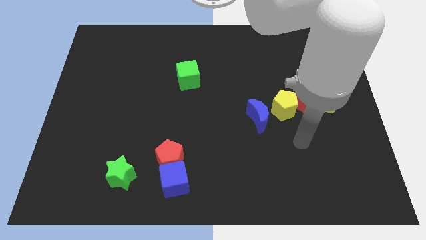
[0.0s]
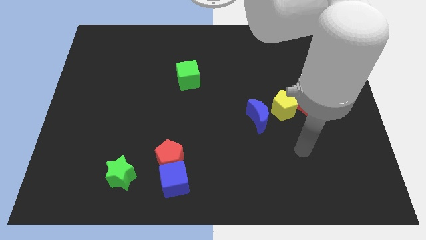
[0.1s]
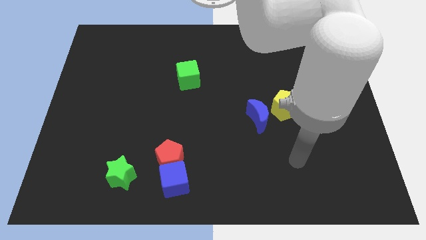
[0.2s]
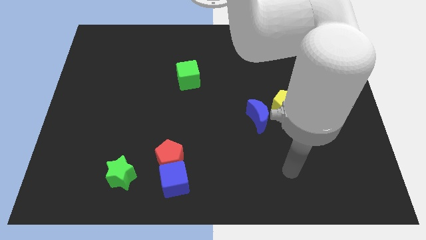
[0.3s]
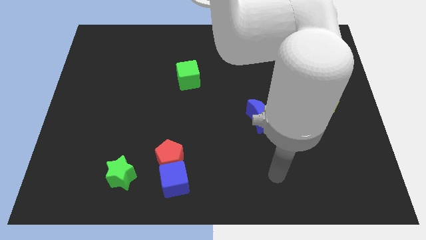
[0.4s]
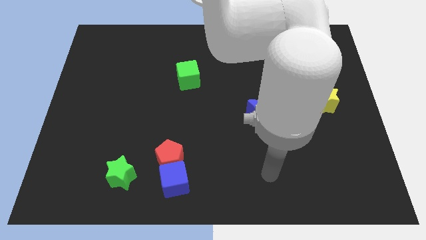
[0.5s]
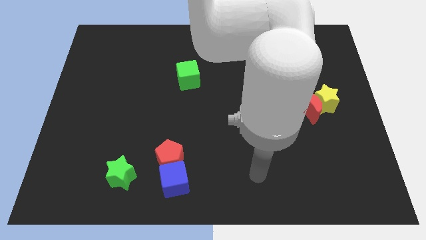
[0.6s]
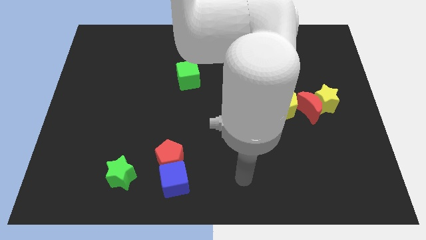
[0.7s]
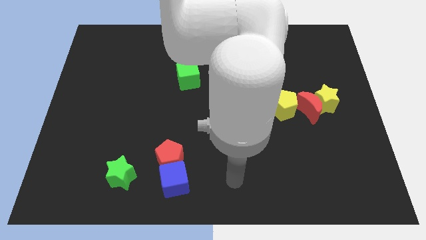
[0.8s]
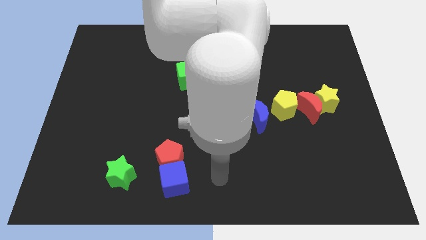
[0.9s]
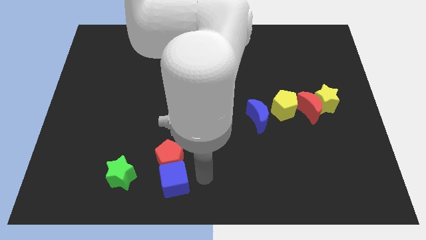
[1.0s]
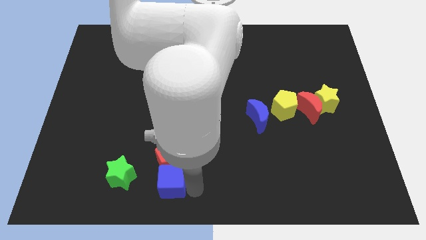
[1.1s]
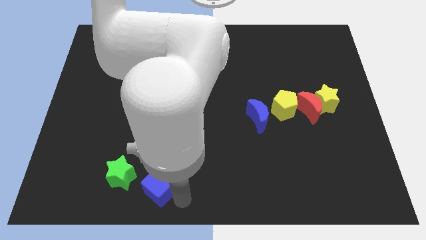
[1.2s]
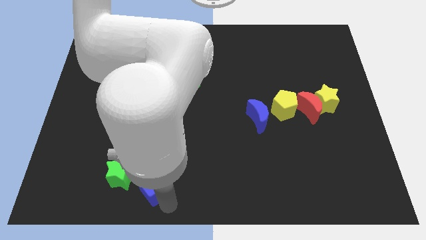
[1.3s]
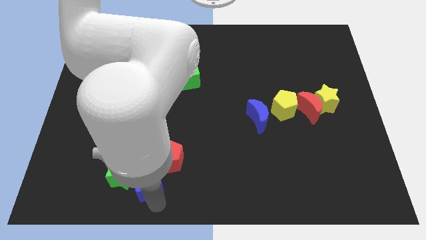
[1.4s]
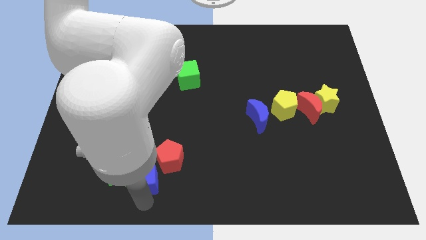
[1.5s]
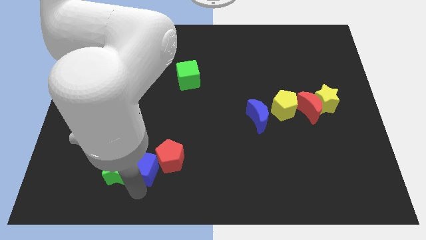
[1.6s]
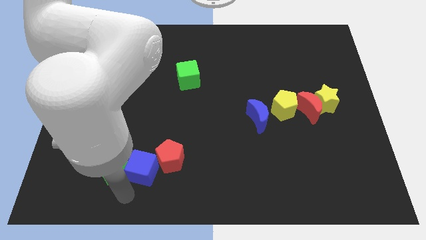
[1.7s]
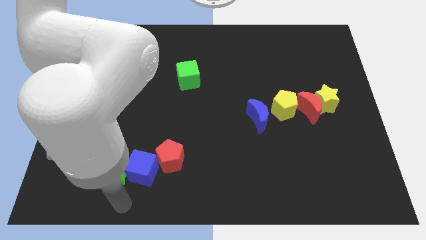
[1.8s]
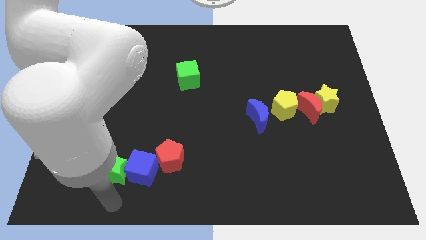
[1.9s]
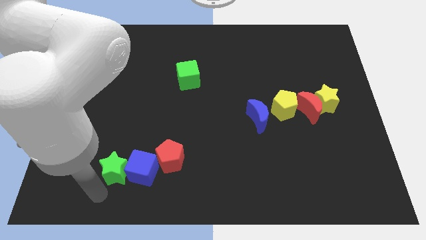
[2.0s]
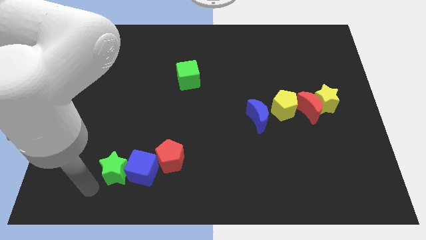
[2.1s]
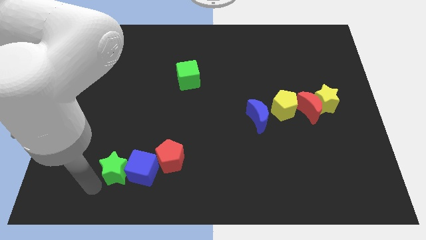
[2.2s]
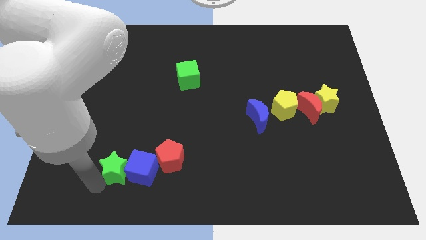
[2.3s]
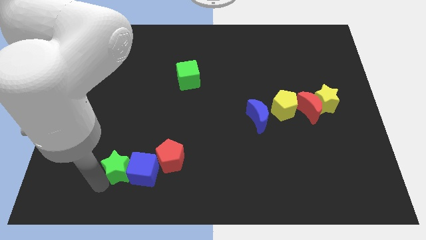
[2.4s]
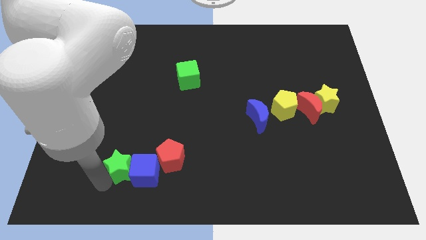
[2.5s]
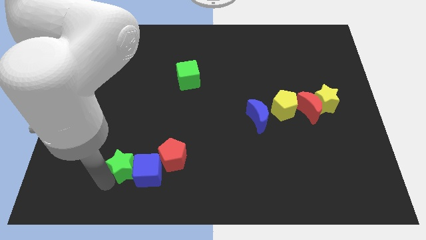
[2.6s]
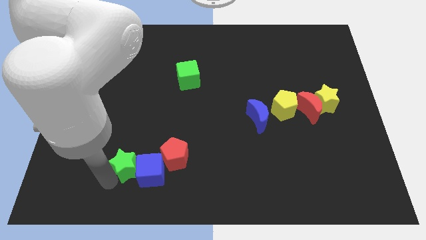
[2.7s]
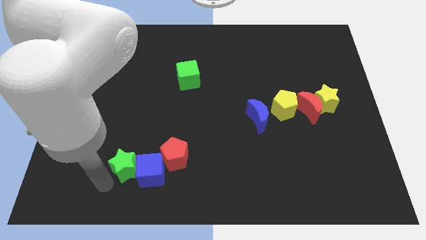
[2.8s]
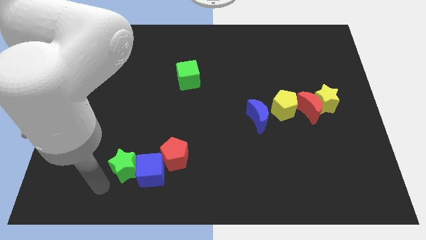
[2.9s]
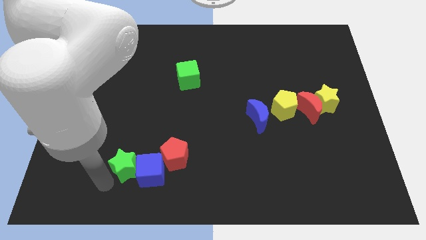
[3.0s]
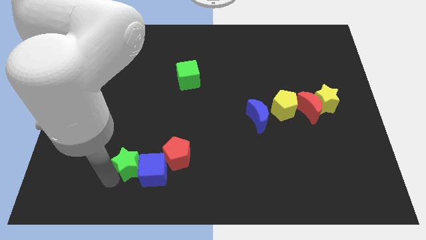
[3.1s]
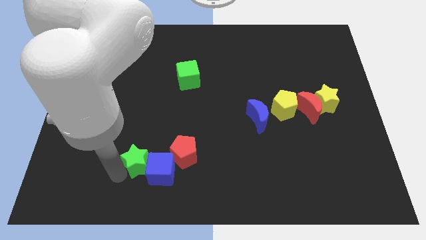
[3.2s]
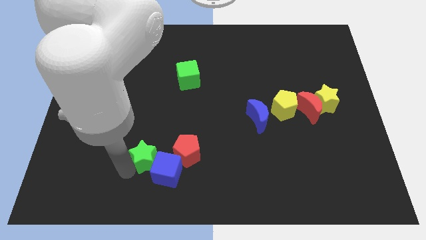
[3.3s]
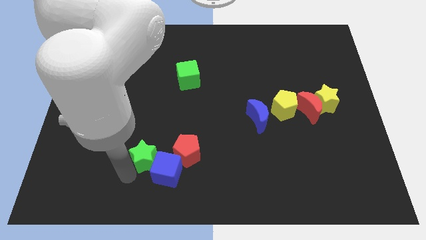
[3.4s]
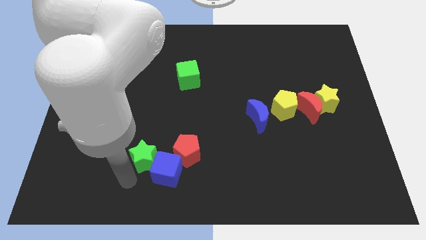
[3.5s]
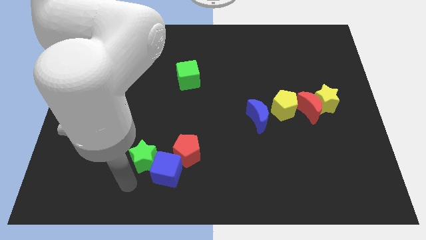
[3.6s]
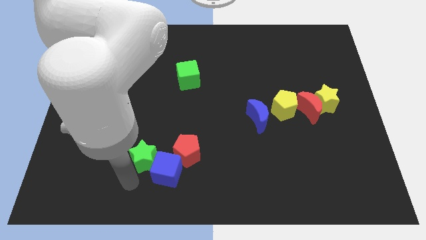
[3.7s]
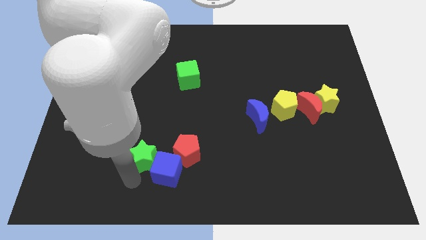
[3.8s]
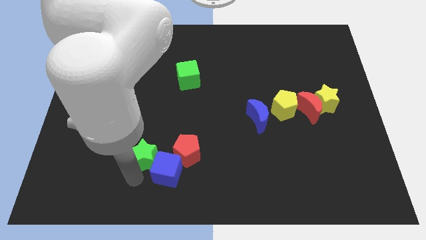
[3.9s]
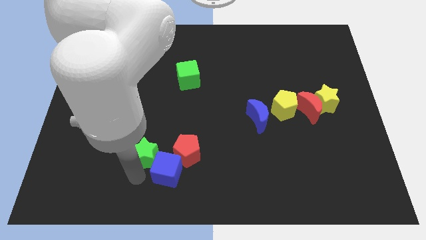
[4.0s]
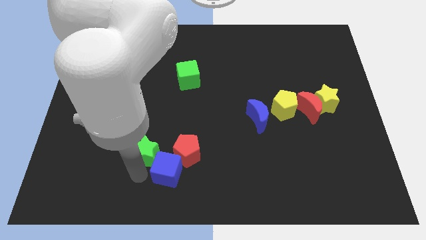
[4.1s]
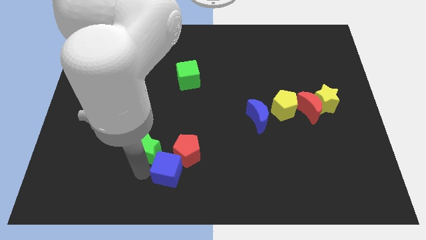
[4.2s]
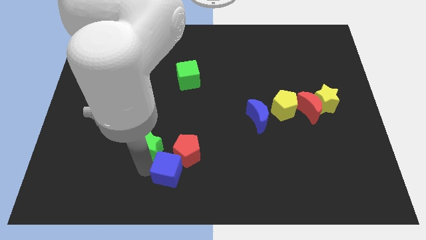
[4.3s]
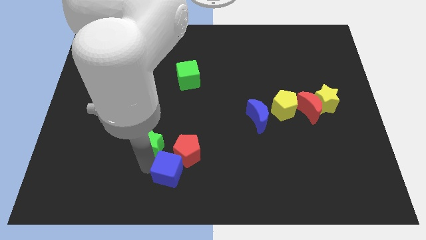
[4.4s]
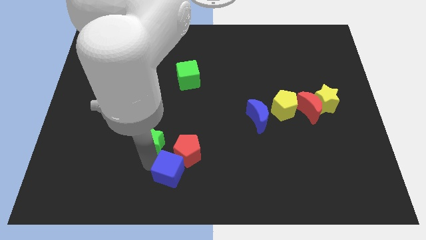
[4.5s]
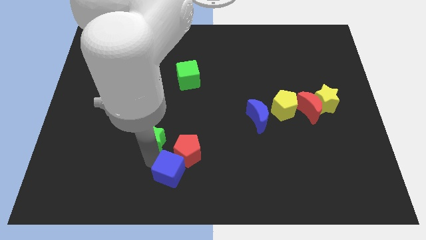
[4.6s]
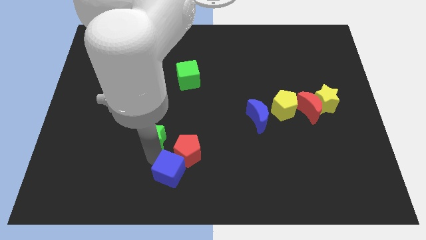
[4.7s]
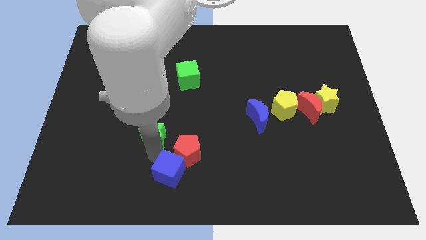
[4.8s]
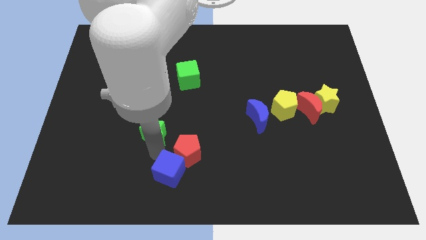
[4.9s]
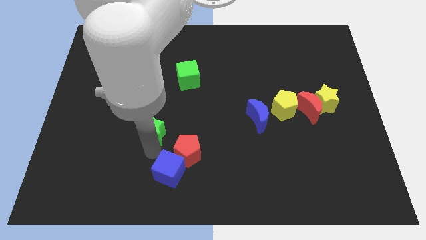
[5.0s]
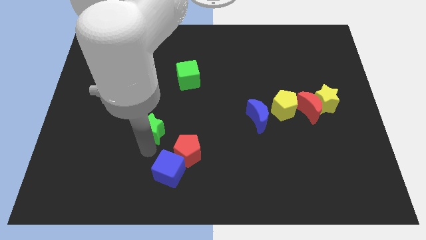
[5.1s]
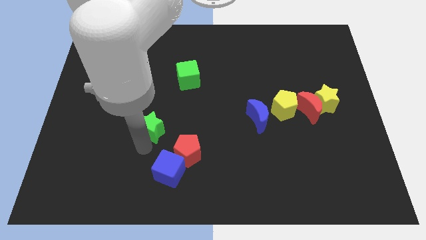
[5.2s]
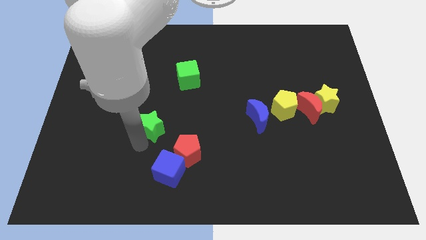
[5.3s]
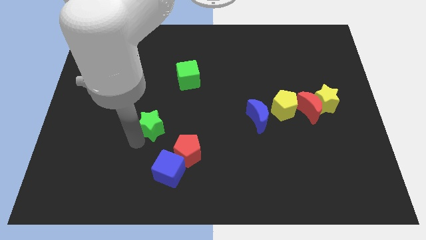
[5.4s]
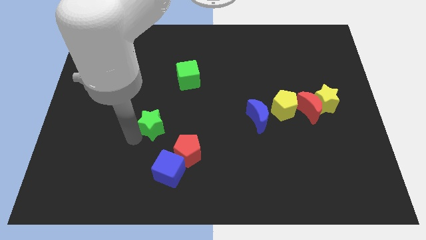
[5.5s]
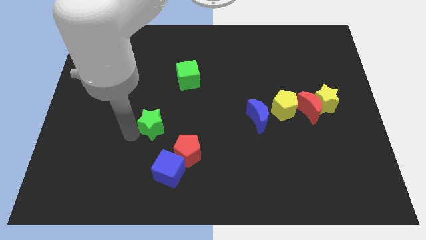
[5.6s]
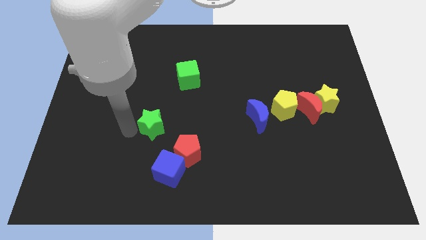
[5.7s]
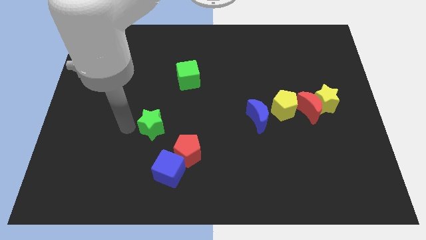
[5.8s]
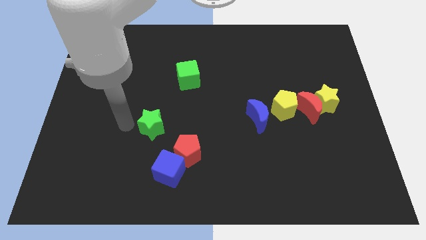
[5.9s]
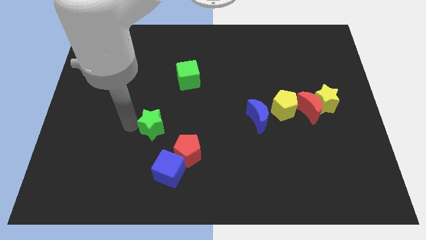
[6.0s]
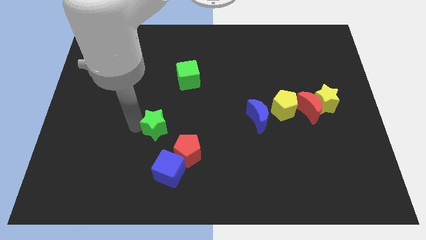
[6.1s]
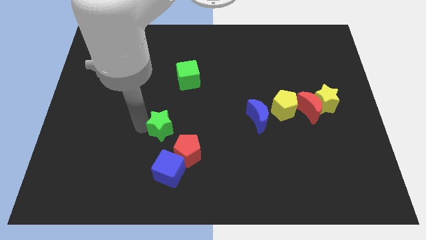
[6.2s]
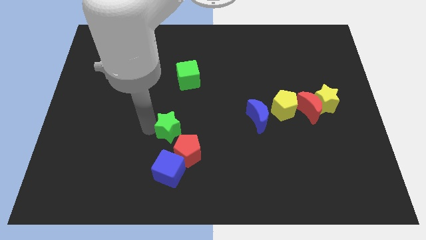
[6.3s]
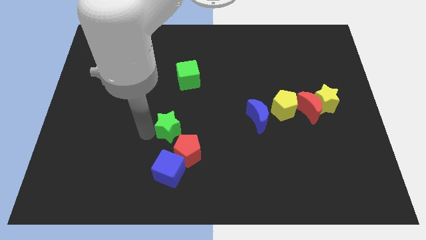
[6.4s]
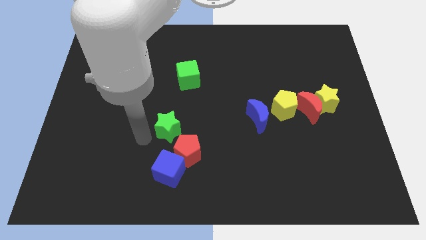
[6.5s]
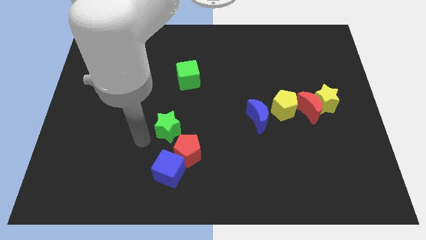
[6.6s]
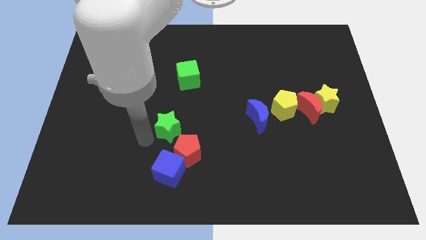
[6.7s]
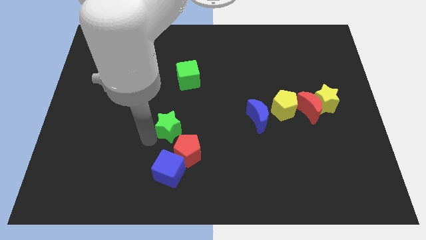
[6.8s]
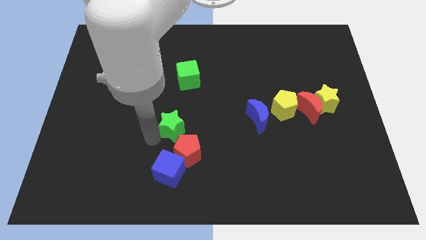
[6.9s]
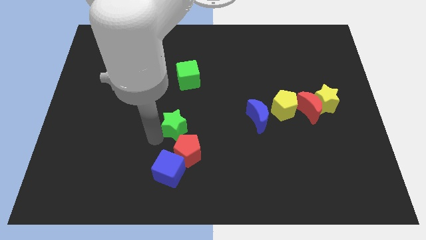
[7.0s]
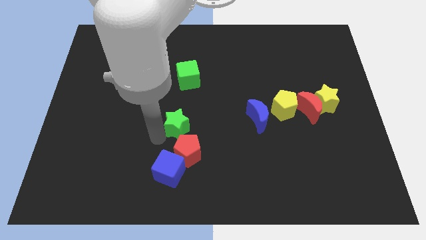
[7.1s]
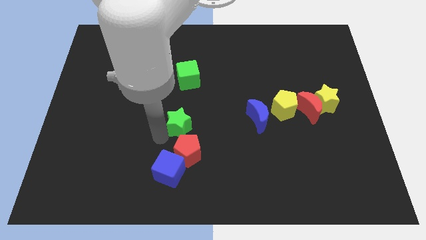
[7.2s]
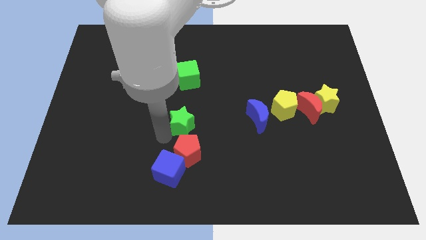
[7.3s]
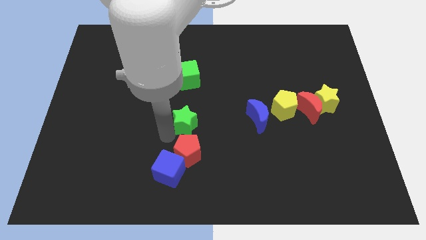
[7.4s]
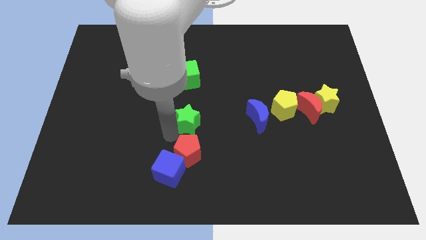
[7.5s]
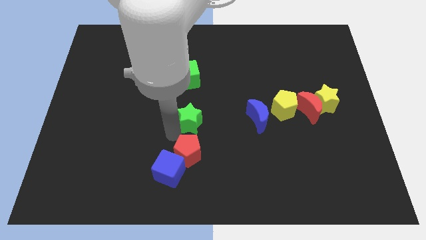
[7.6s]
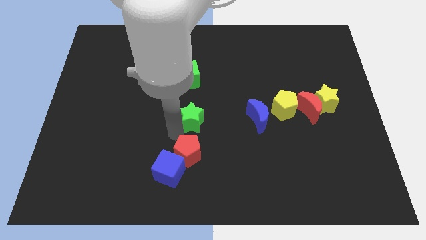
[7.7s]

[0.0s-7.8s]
push the green star up and right diagonally
